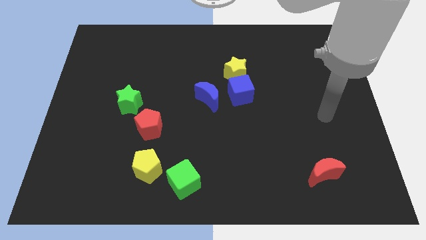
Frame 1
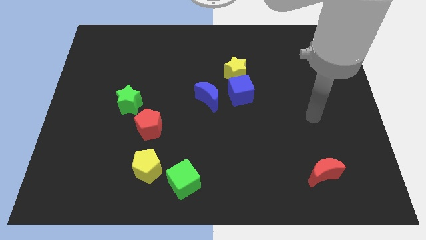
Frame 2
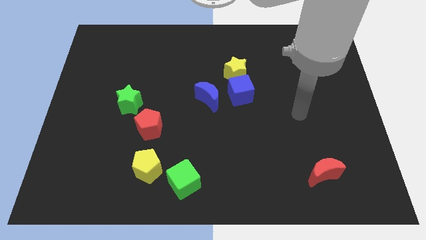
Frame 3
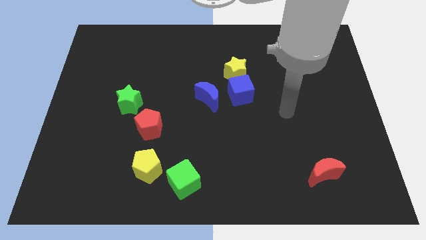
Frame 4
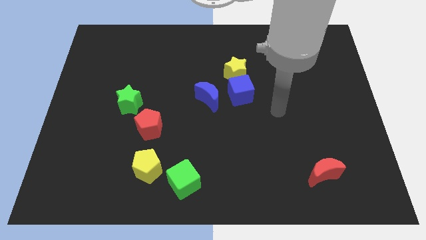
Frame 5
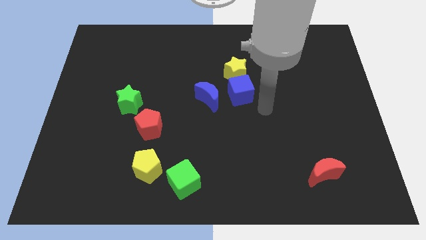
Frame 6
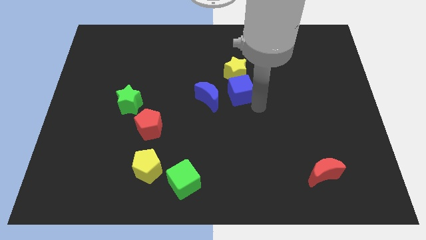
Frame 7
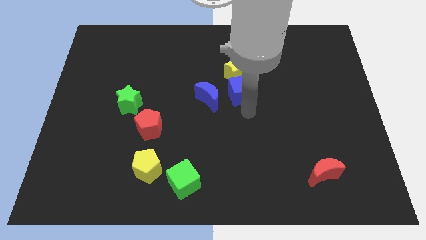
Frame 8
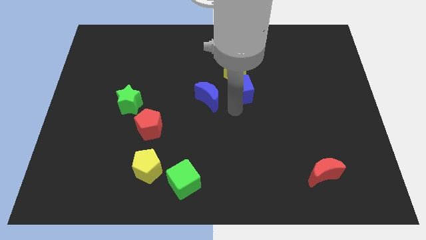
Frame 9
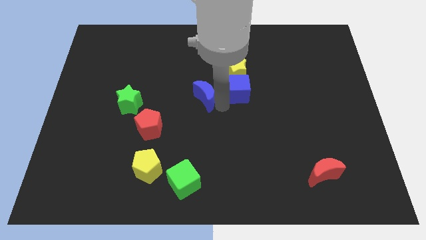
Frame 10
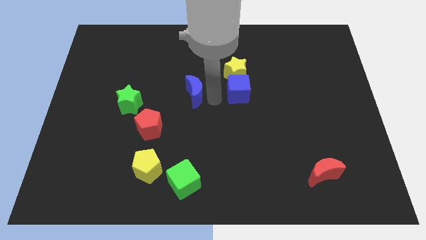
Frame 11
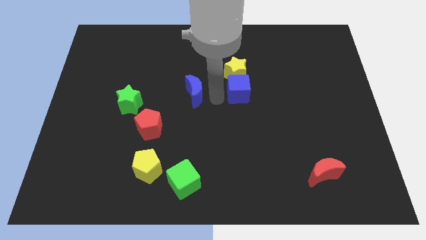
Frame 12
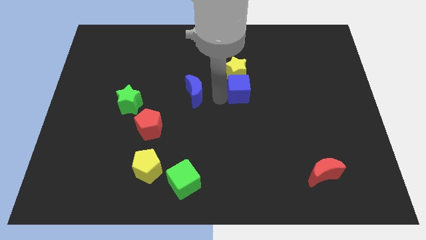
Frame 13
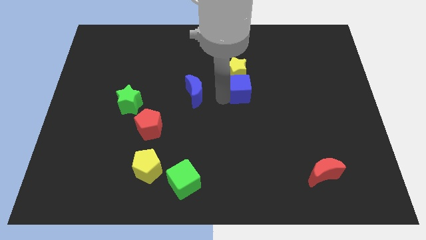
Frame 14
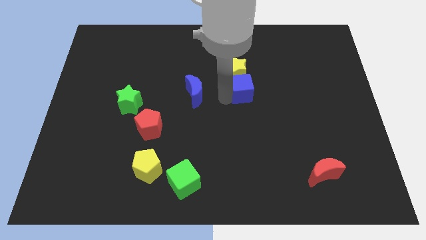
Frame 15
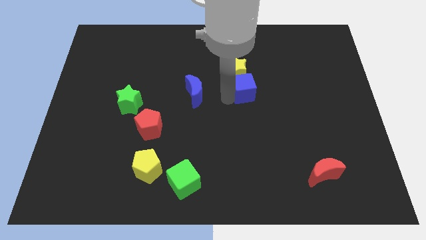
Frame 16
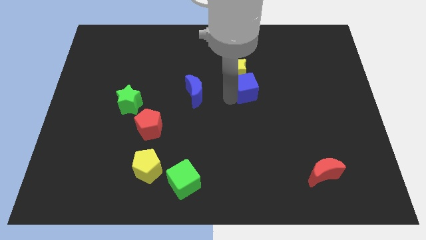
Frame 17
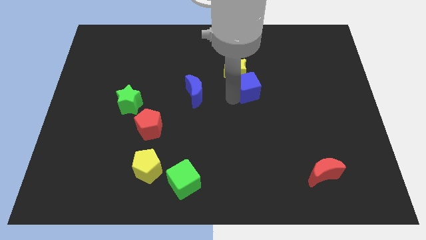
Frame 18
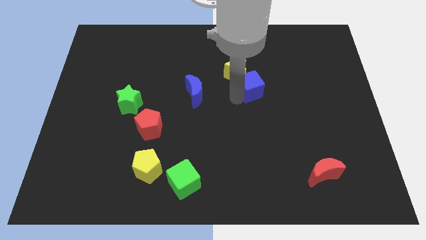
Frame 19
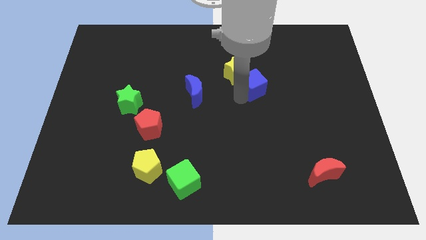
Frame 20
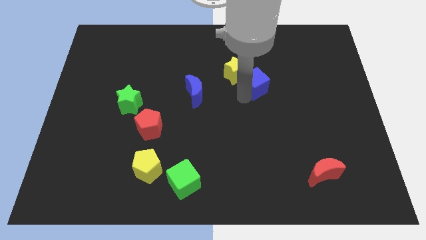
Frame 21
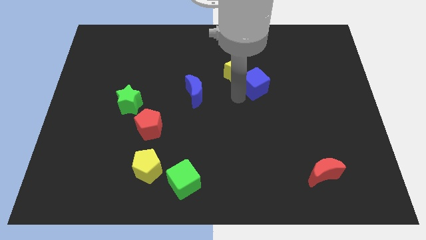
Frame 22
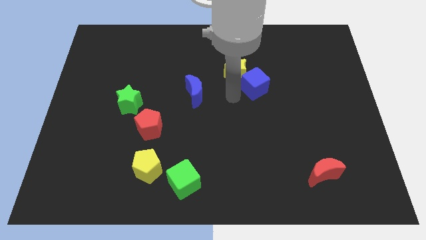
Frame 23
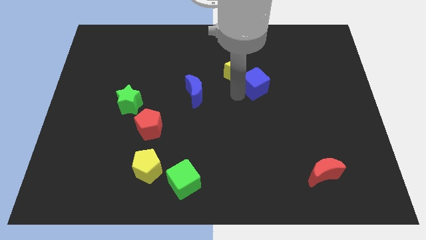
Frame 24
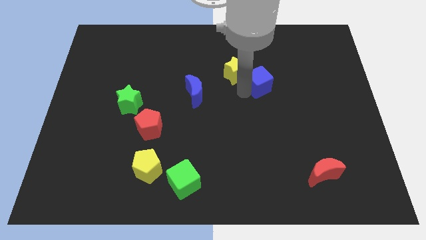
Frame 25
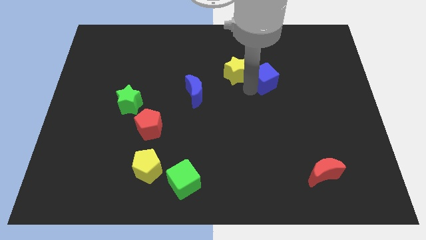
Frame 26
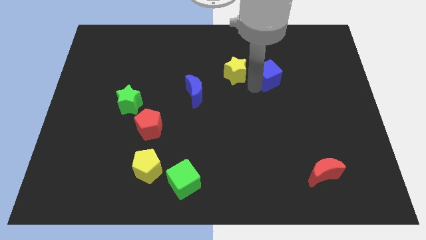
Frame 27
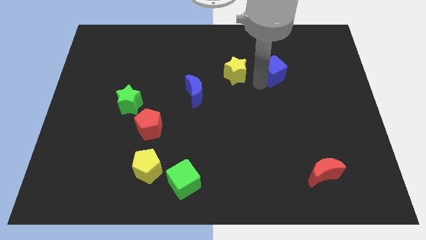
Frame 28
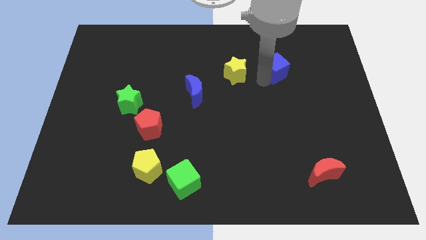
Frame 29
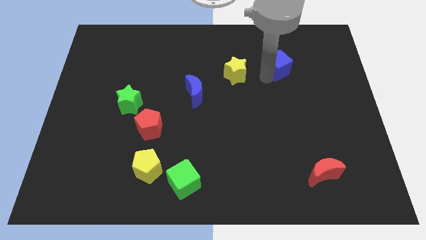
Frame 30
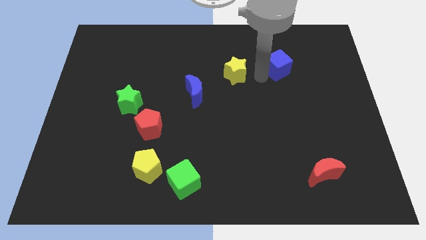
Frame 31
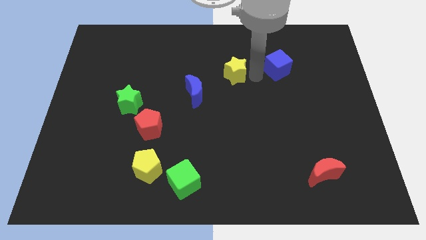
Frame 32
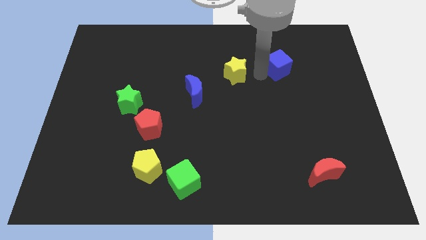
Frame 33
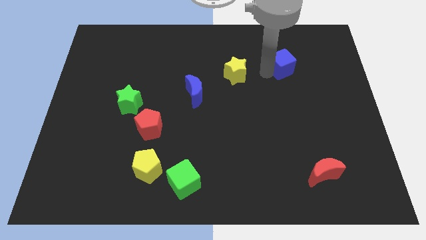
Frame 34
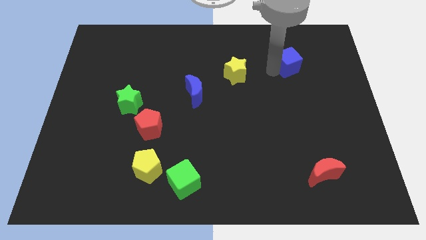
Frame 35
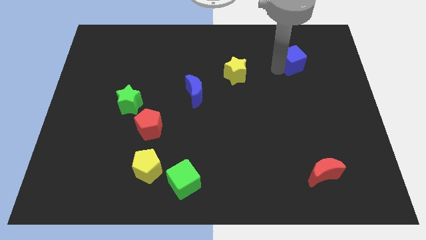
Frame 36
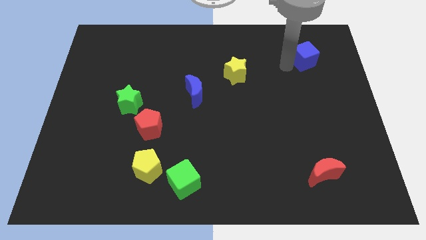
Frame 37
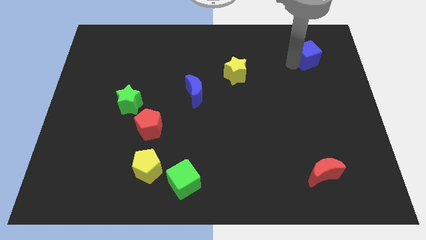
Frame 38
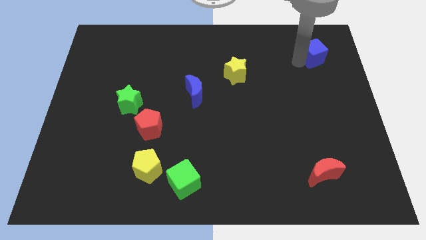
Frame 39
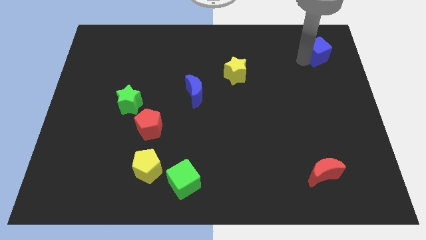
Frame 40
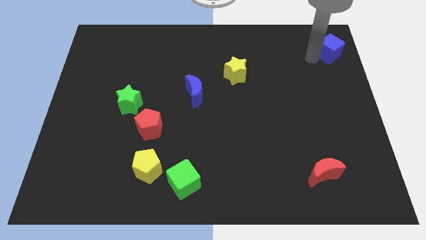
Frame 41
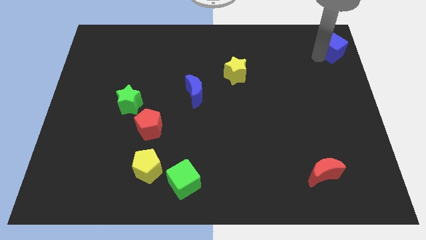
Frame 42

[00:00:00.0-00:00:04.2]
push the blue cube to the top right corner

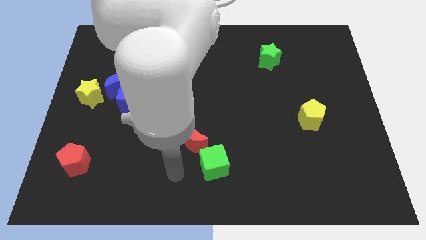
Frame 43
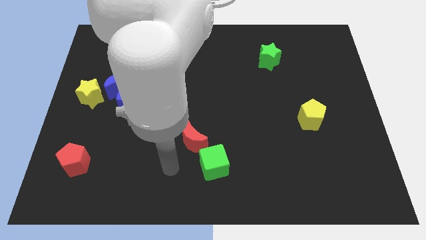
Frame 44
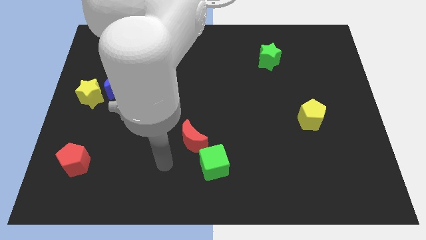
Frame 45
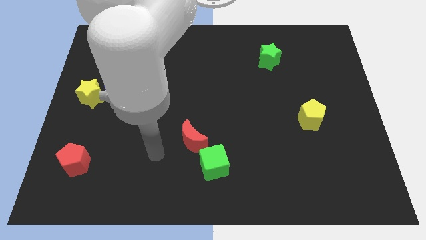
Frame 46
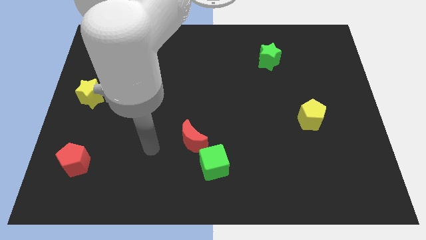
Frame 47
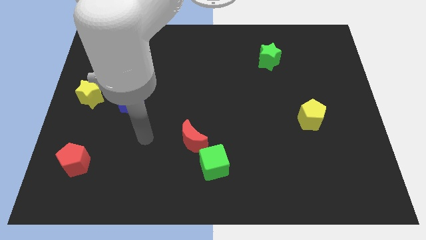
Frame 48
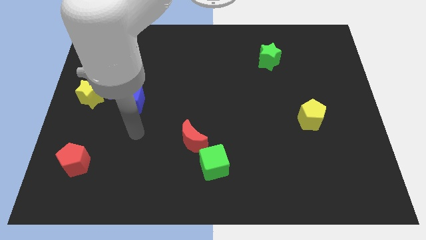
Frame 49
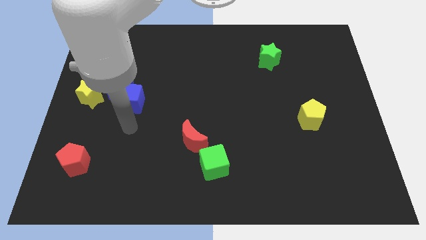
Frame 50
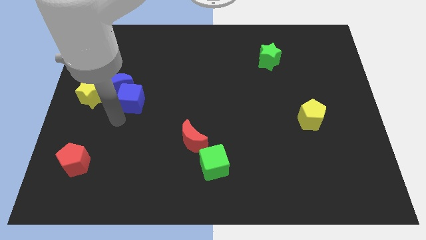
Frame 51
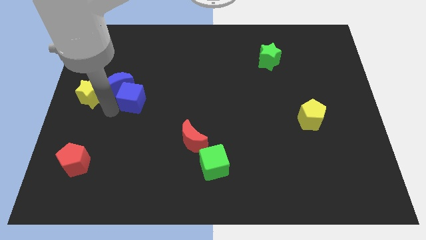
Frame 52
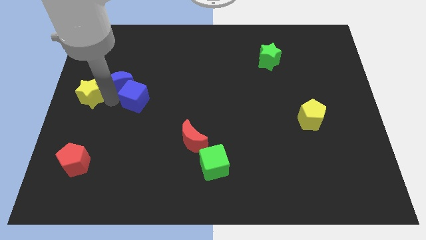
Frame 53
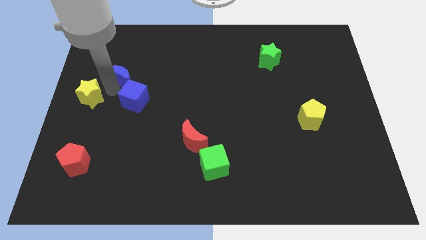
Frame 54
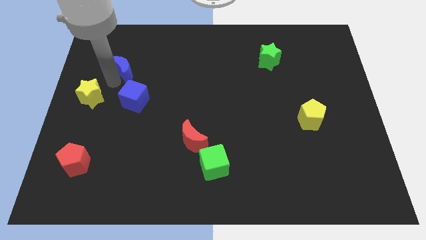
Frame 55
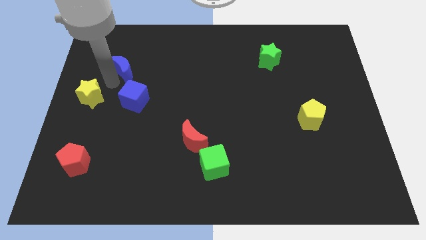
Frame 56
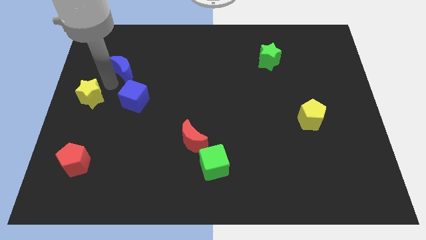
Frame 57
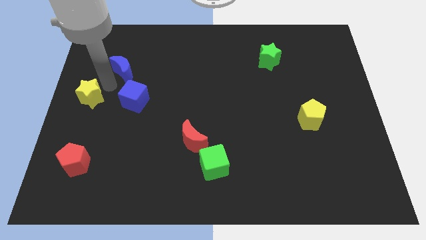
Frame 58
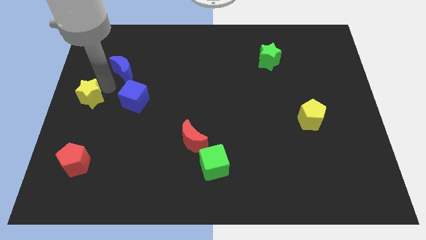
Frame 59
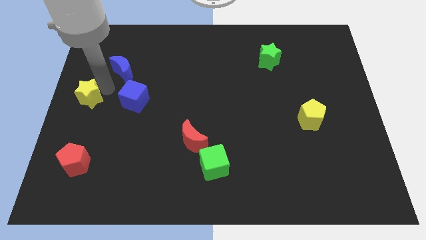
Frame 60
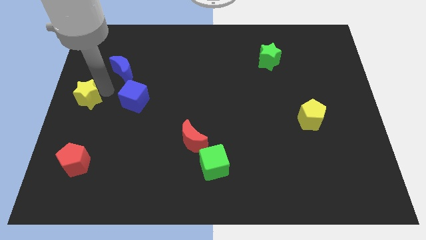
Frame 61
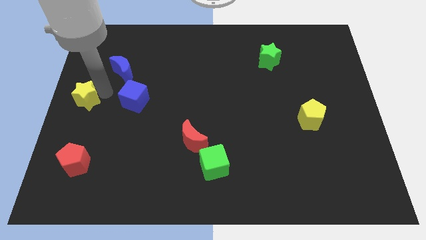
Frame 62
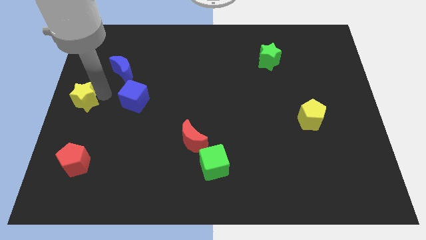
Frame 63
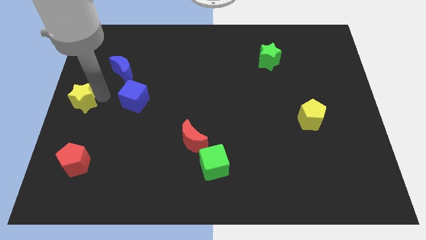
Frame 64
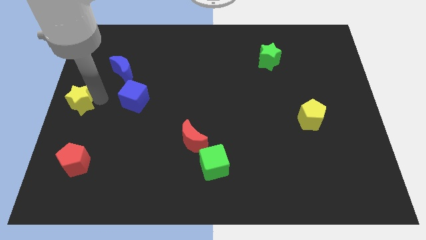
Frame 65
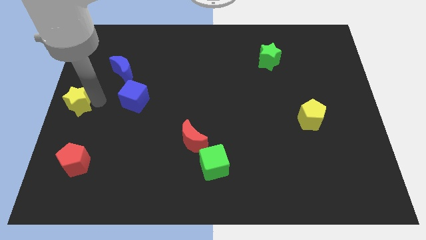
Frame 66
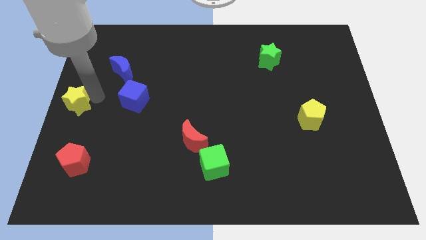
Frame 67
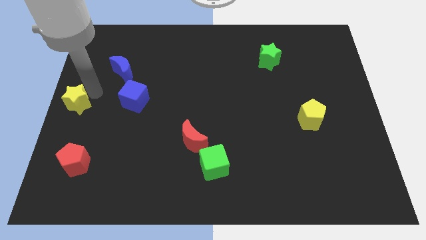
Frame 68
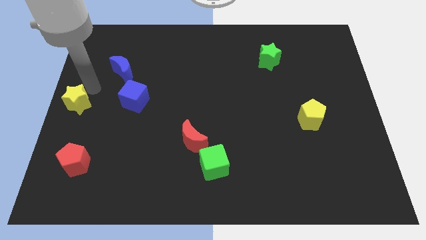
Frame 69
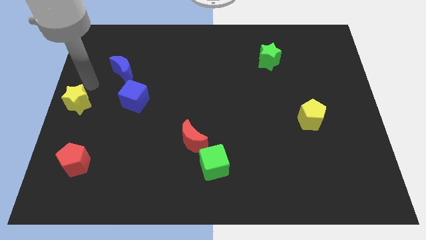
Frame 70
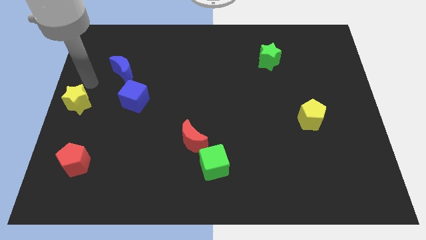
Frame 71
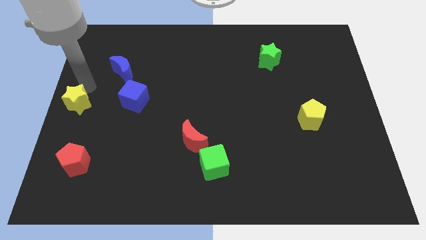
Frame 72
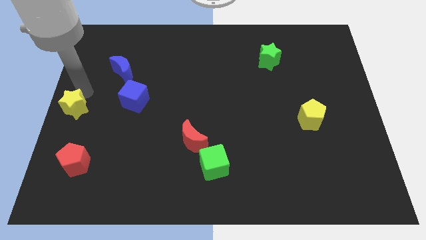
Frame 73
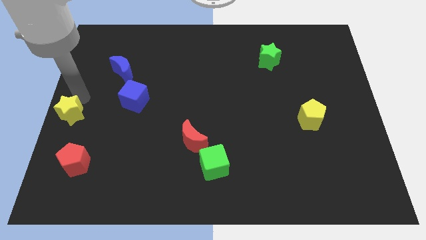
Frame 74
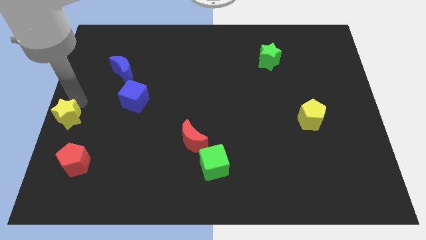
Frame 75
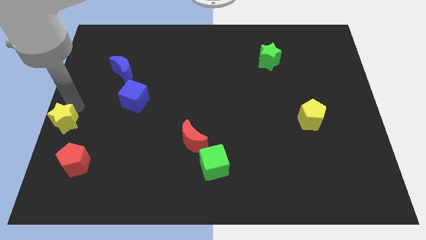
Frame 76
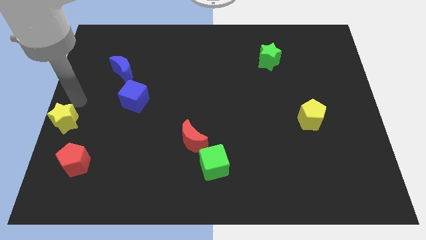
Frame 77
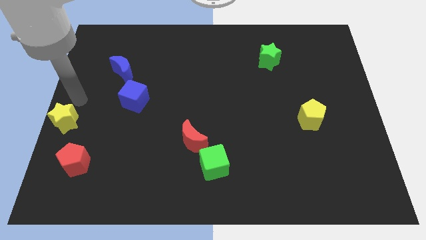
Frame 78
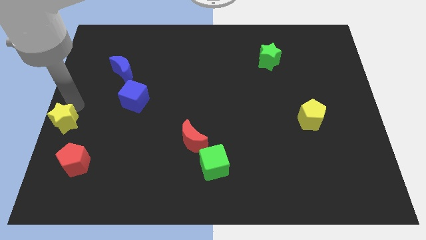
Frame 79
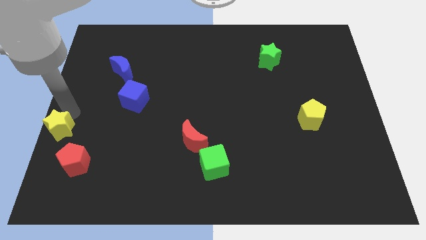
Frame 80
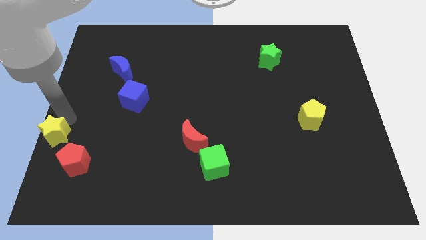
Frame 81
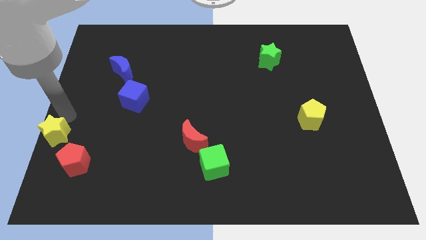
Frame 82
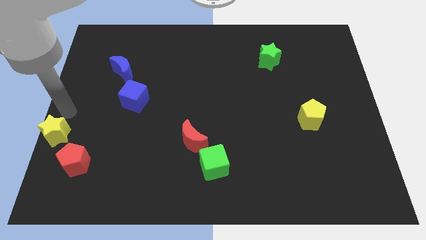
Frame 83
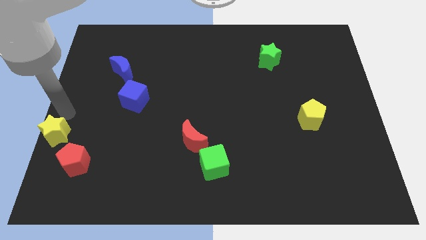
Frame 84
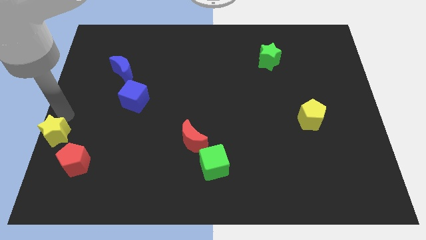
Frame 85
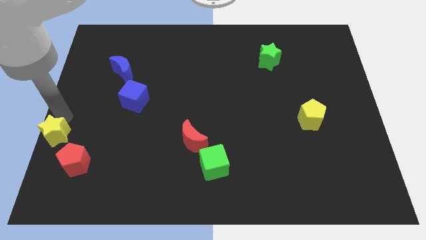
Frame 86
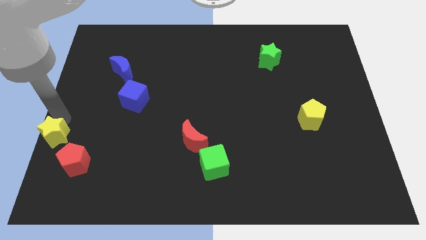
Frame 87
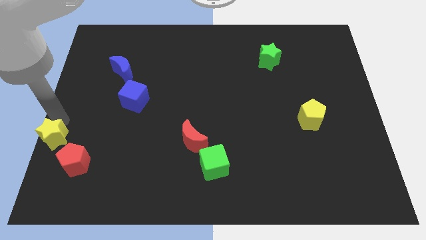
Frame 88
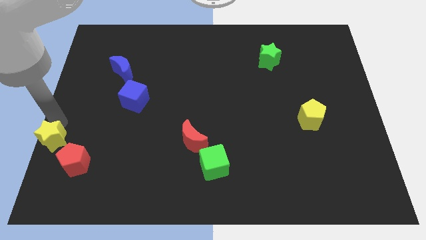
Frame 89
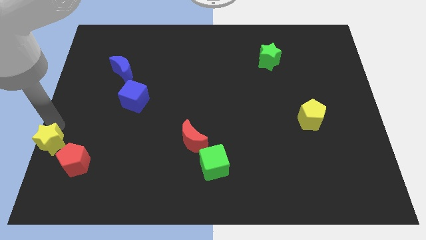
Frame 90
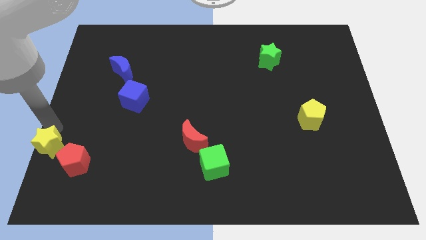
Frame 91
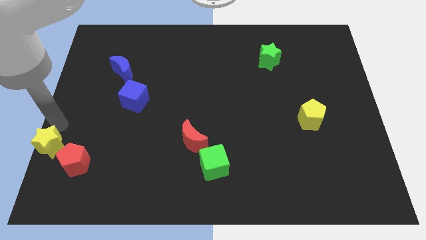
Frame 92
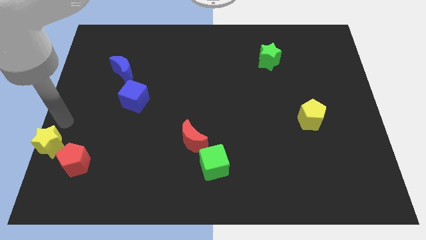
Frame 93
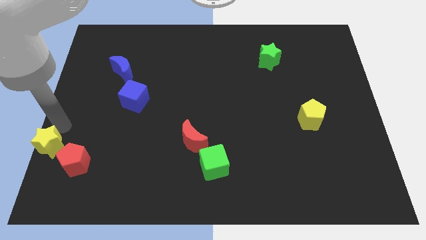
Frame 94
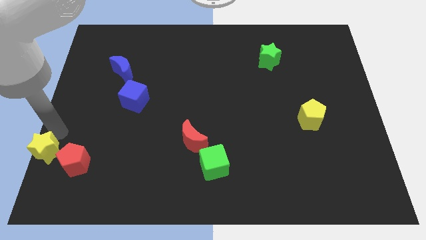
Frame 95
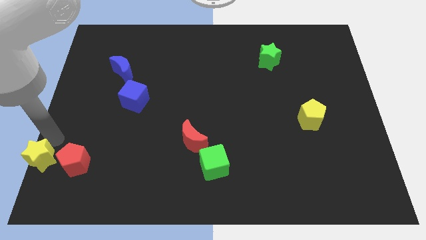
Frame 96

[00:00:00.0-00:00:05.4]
slide the yellow star to the lower left corner
